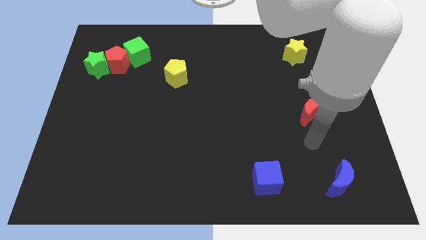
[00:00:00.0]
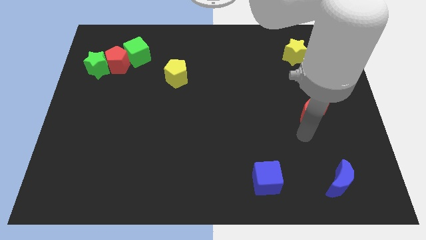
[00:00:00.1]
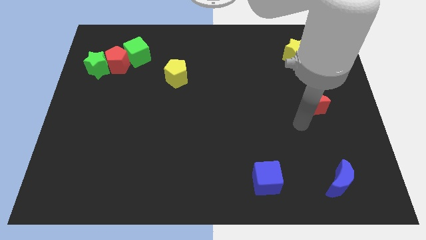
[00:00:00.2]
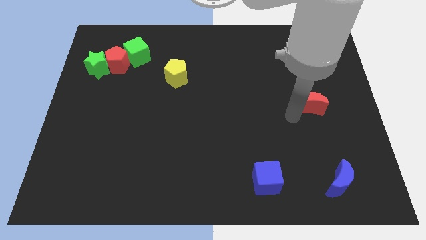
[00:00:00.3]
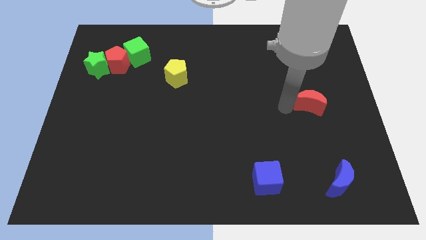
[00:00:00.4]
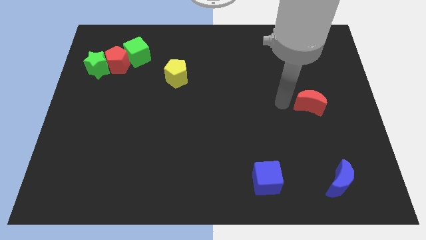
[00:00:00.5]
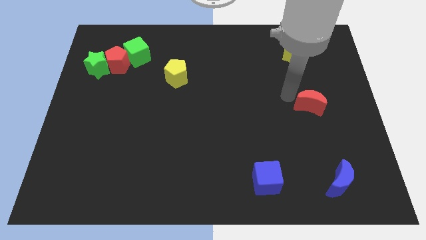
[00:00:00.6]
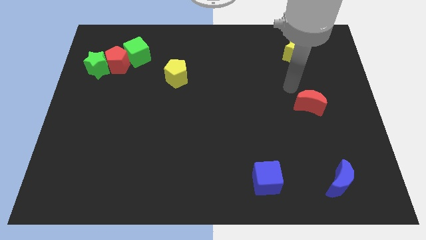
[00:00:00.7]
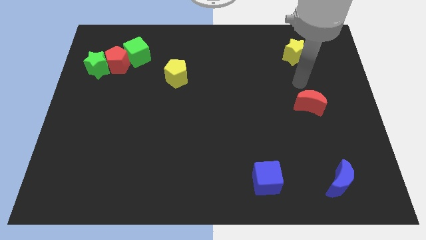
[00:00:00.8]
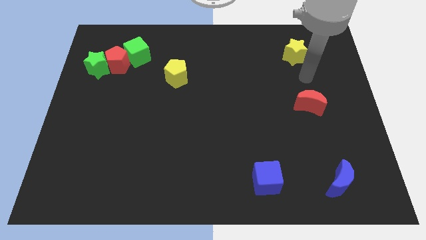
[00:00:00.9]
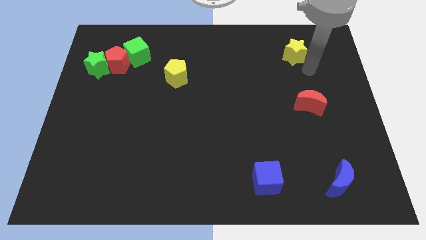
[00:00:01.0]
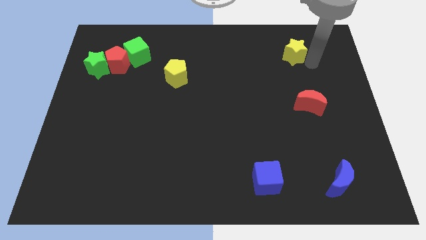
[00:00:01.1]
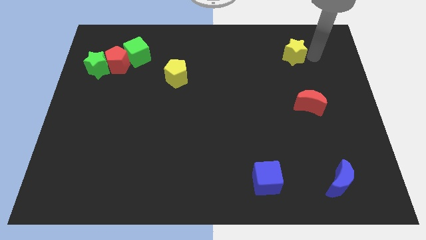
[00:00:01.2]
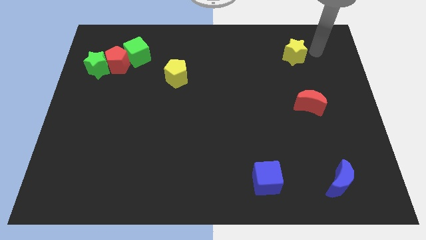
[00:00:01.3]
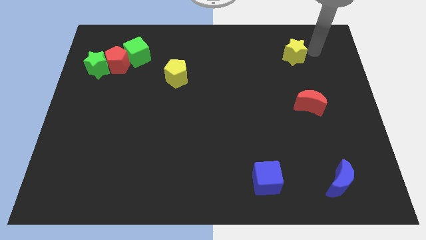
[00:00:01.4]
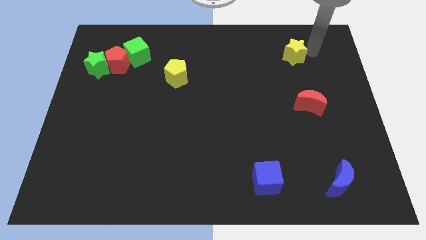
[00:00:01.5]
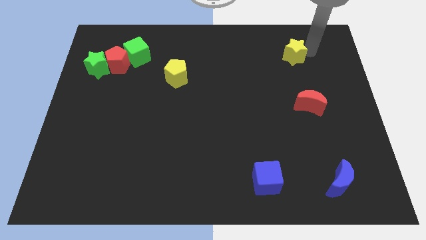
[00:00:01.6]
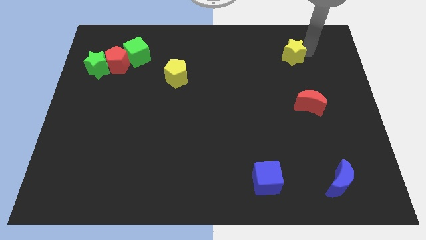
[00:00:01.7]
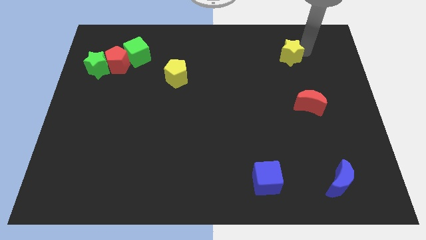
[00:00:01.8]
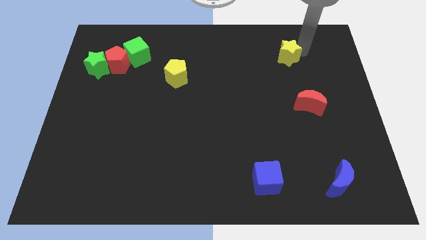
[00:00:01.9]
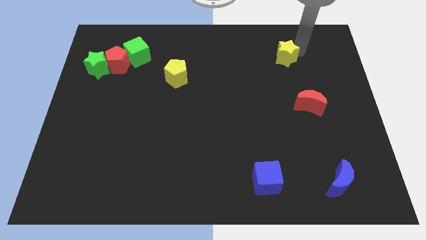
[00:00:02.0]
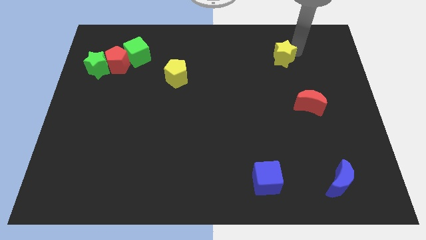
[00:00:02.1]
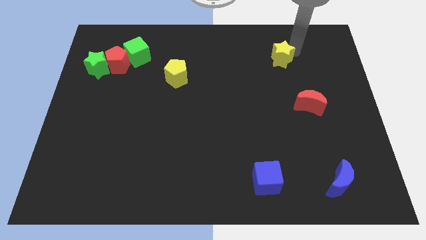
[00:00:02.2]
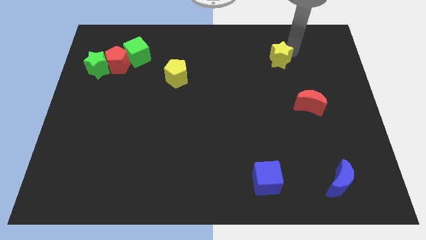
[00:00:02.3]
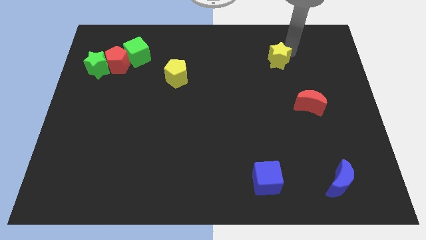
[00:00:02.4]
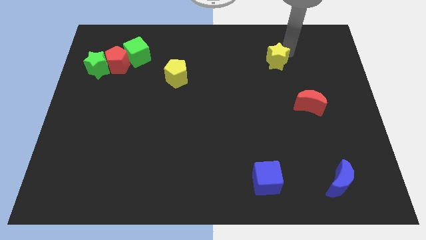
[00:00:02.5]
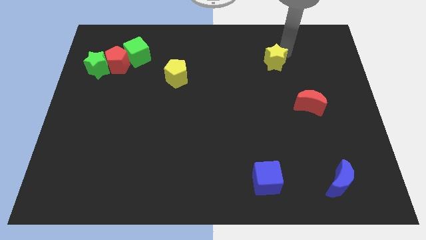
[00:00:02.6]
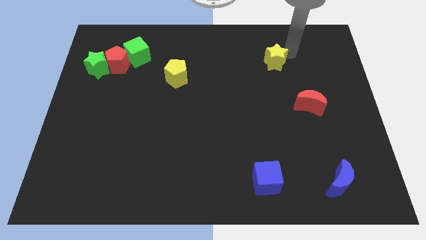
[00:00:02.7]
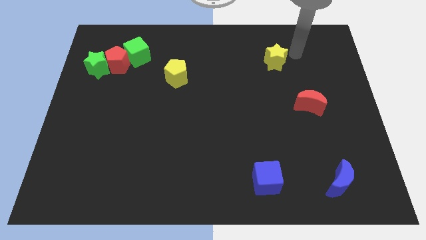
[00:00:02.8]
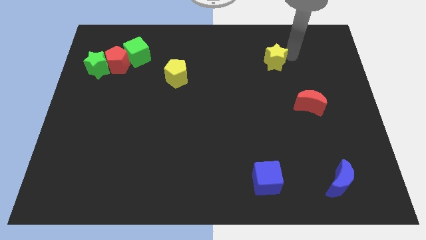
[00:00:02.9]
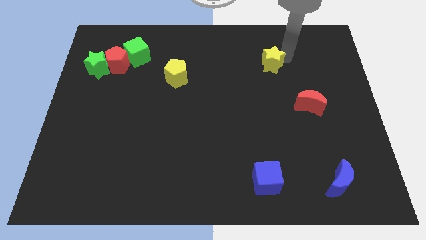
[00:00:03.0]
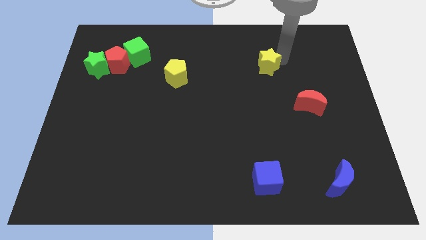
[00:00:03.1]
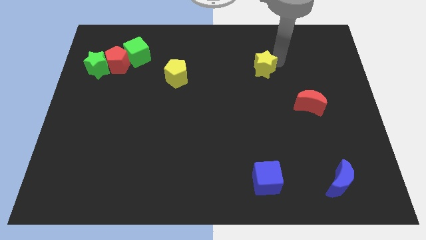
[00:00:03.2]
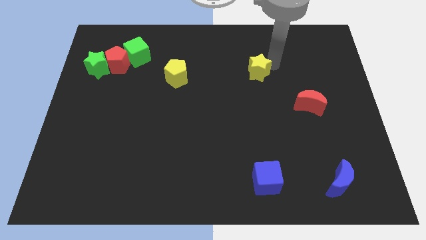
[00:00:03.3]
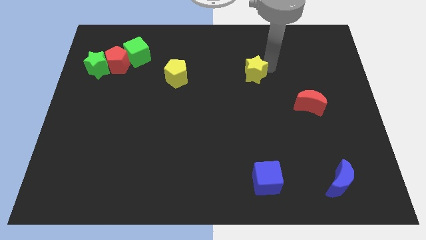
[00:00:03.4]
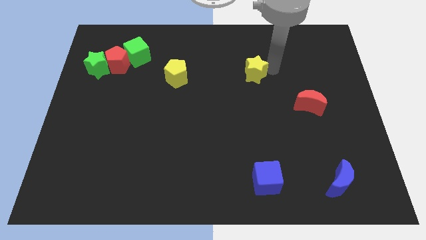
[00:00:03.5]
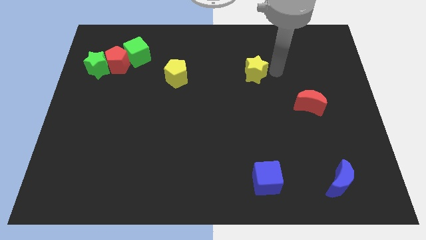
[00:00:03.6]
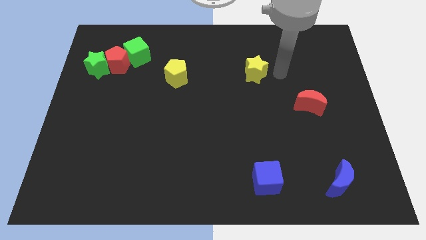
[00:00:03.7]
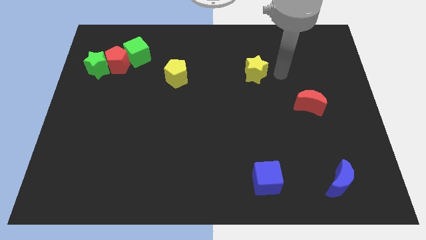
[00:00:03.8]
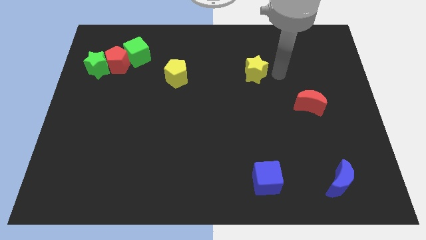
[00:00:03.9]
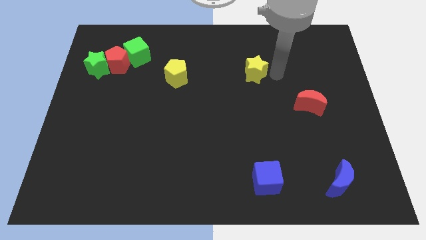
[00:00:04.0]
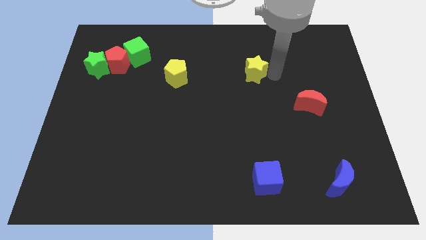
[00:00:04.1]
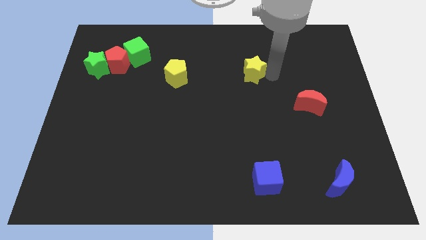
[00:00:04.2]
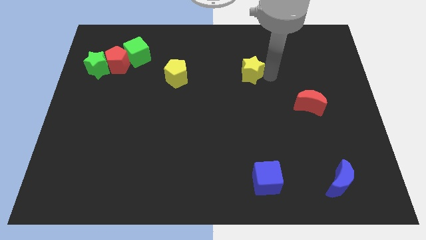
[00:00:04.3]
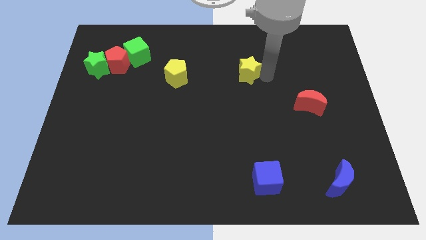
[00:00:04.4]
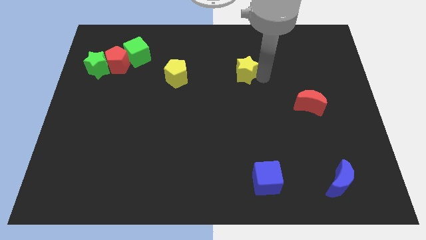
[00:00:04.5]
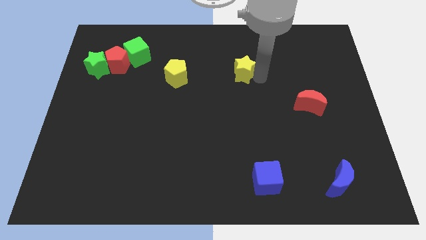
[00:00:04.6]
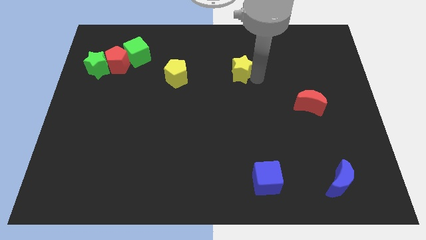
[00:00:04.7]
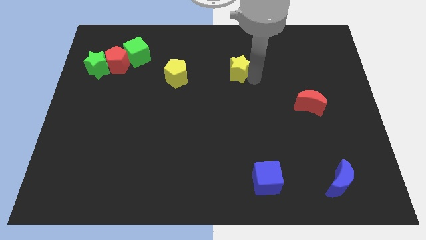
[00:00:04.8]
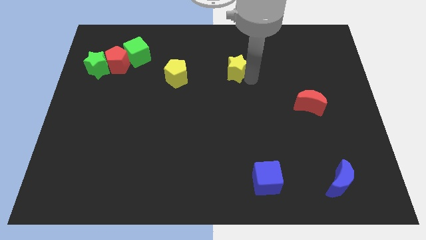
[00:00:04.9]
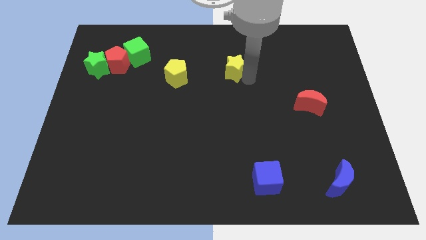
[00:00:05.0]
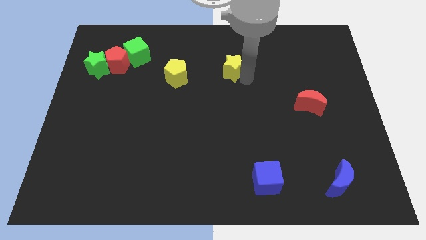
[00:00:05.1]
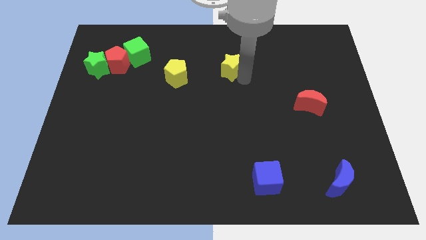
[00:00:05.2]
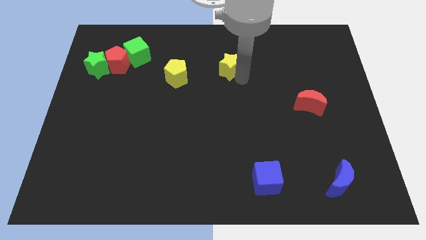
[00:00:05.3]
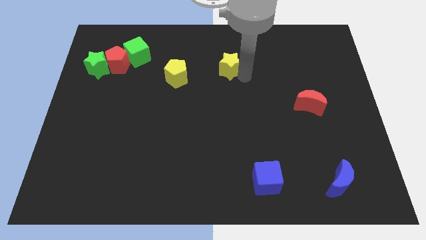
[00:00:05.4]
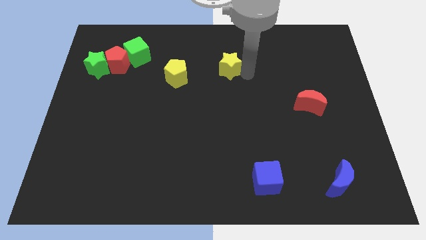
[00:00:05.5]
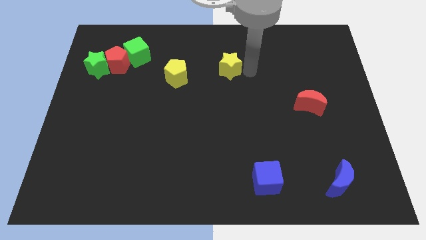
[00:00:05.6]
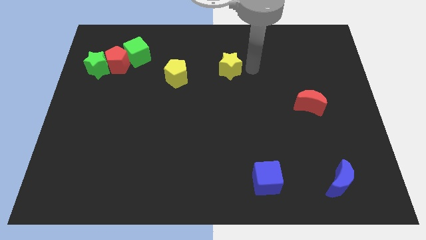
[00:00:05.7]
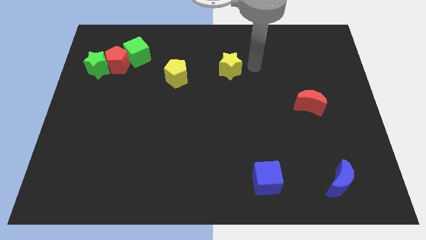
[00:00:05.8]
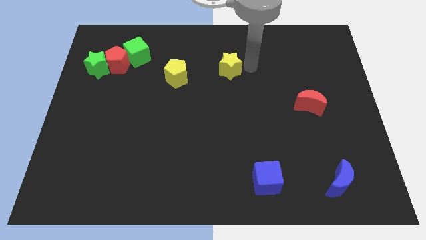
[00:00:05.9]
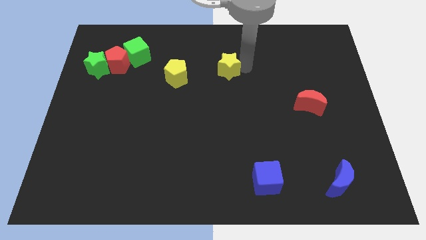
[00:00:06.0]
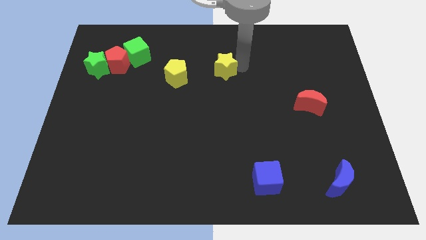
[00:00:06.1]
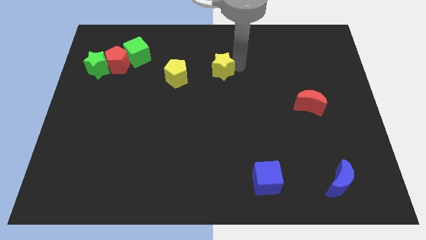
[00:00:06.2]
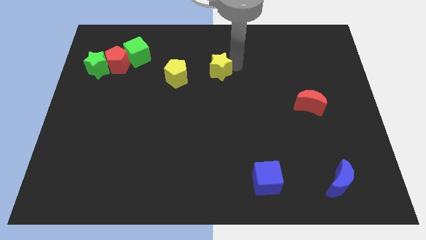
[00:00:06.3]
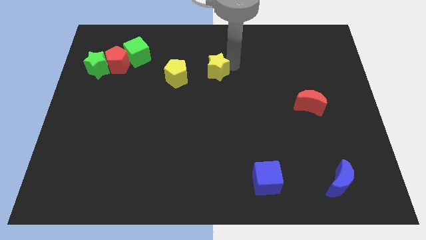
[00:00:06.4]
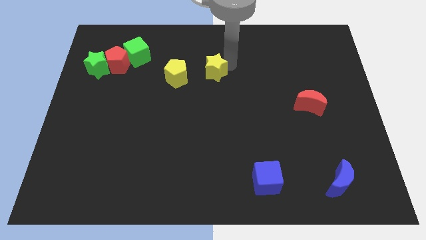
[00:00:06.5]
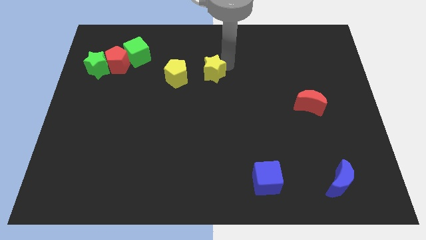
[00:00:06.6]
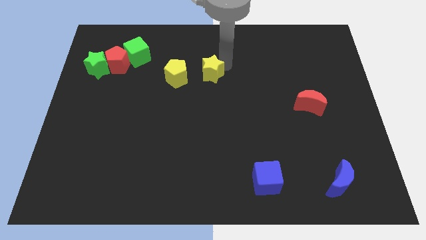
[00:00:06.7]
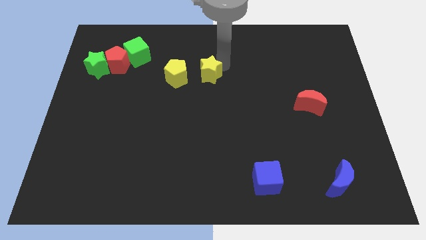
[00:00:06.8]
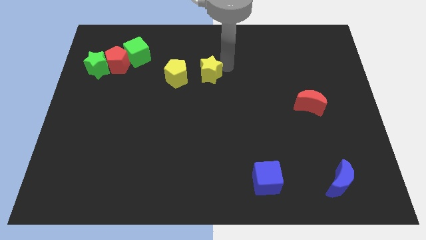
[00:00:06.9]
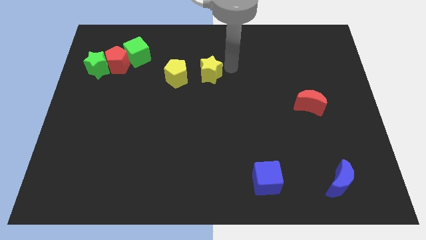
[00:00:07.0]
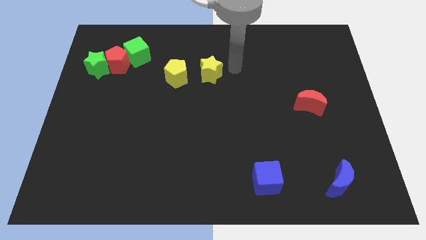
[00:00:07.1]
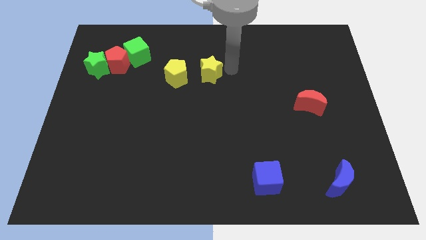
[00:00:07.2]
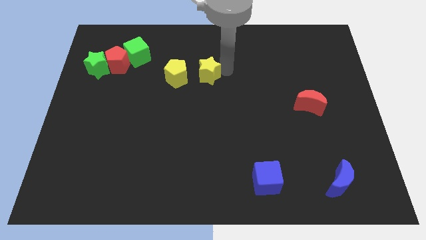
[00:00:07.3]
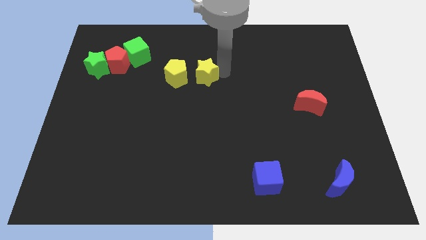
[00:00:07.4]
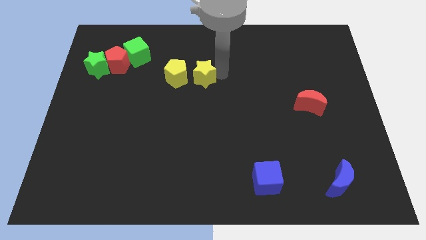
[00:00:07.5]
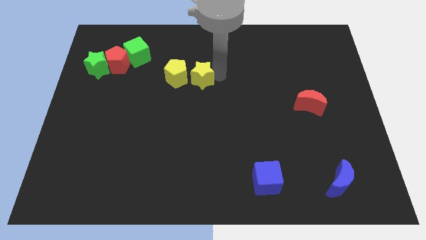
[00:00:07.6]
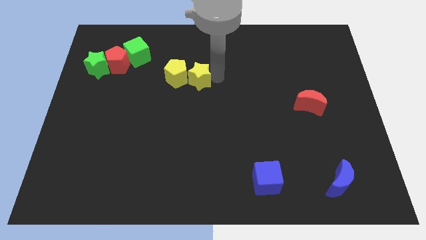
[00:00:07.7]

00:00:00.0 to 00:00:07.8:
move the yellow star next to the yellow pentagon
